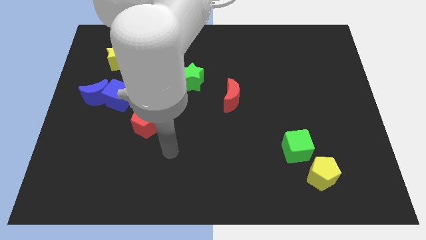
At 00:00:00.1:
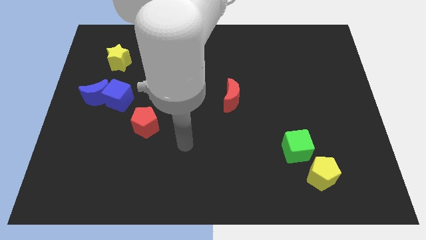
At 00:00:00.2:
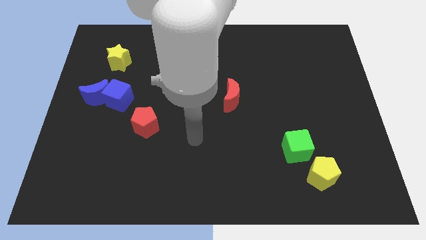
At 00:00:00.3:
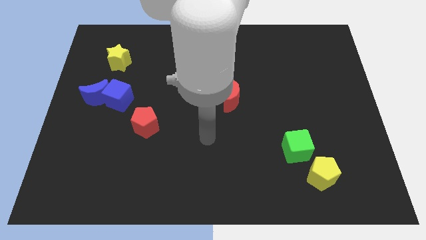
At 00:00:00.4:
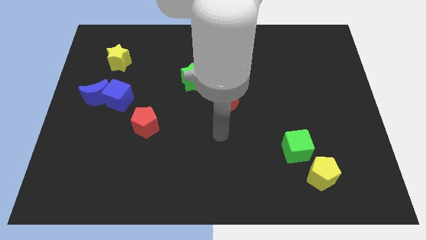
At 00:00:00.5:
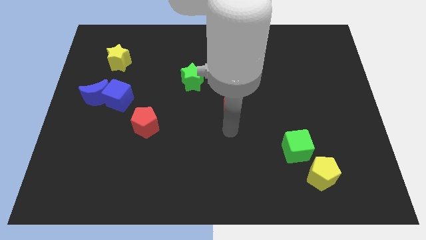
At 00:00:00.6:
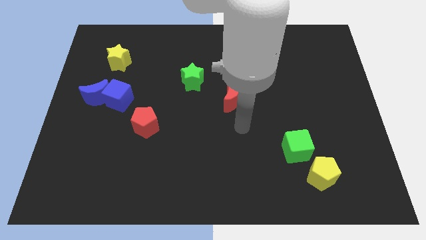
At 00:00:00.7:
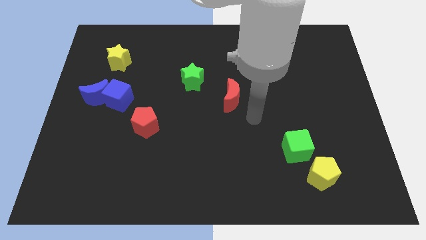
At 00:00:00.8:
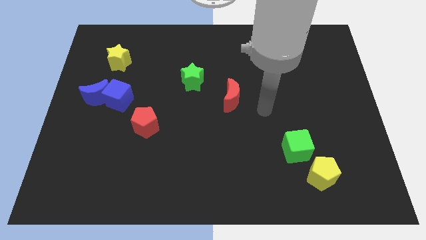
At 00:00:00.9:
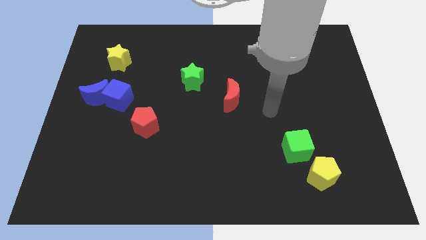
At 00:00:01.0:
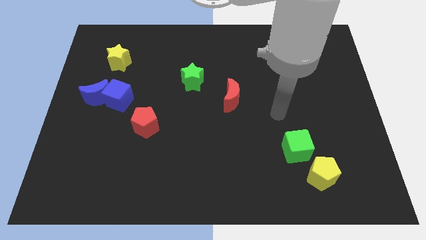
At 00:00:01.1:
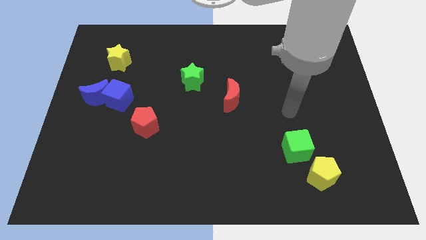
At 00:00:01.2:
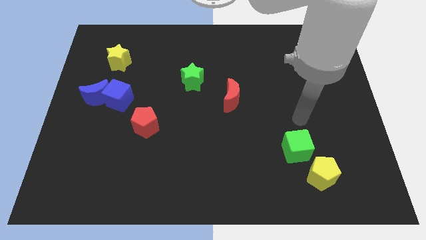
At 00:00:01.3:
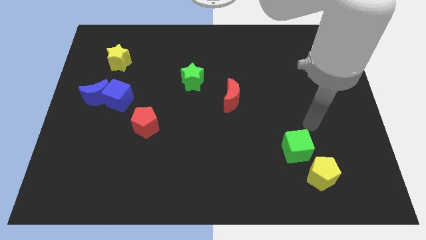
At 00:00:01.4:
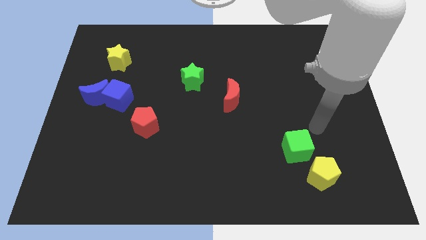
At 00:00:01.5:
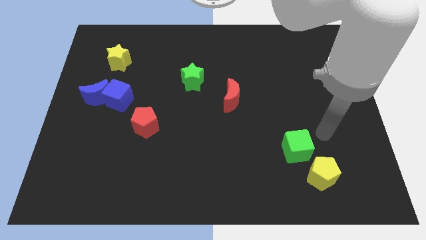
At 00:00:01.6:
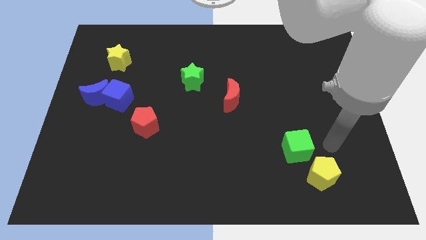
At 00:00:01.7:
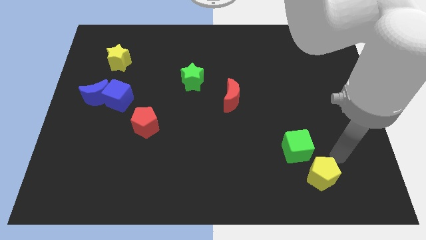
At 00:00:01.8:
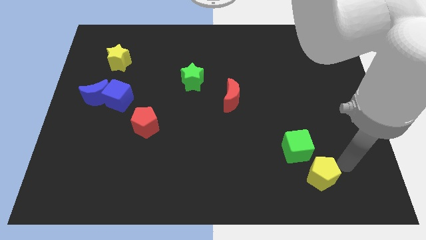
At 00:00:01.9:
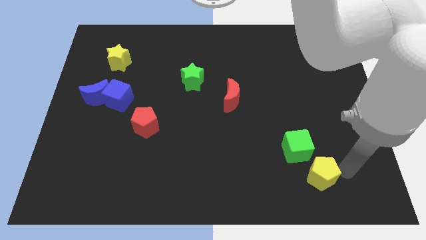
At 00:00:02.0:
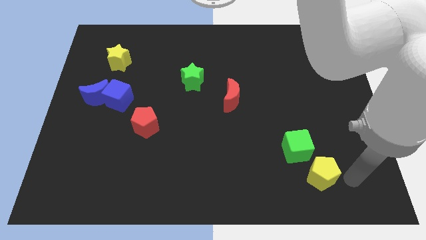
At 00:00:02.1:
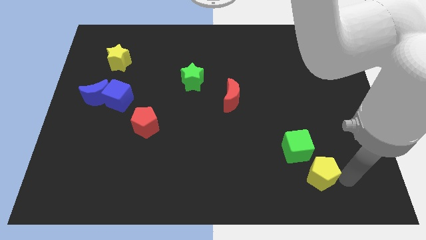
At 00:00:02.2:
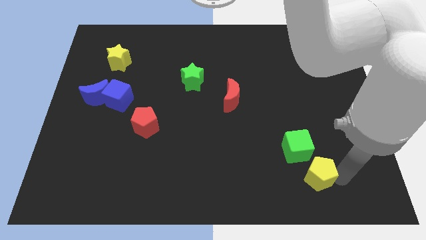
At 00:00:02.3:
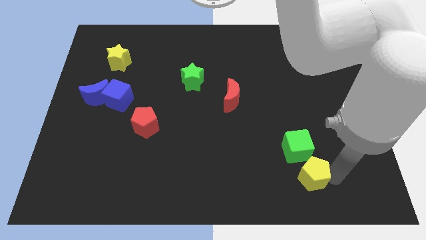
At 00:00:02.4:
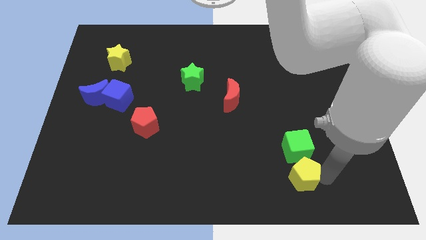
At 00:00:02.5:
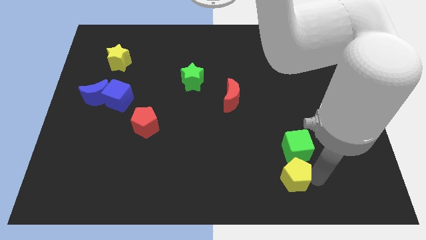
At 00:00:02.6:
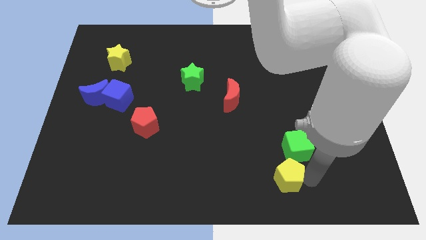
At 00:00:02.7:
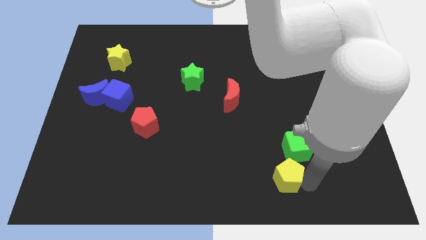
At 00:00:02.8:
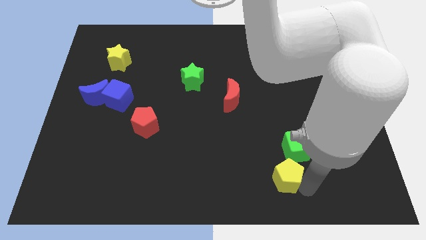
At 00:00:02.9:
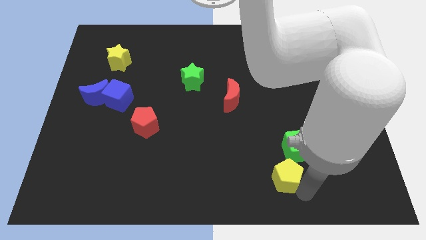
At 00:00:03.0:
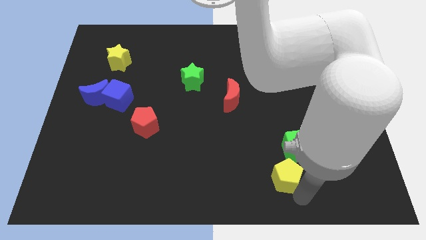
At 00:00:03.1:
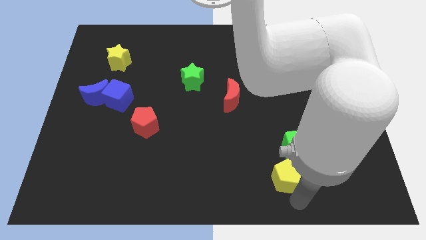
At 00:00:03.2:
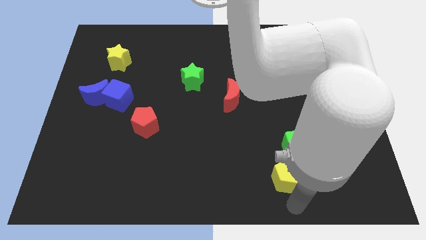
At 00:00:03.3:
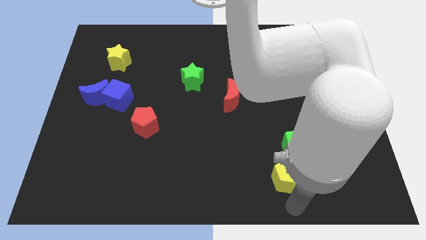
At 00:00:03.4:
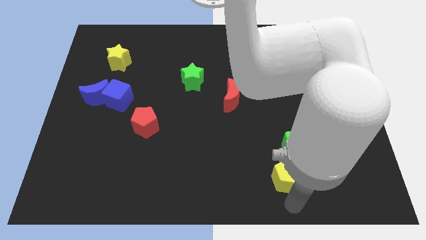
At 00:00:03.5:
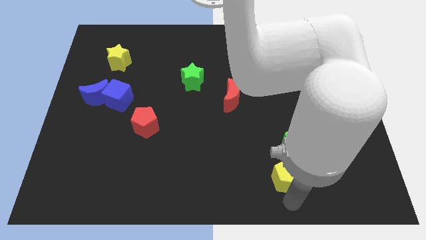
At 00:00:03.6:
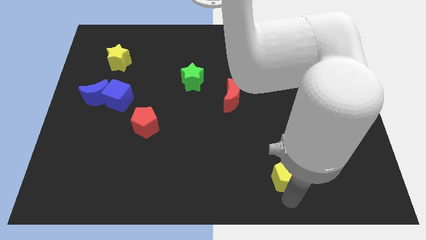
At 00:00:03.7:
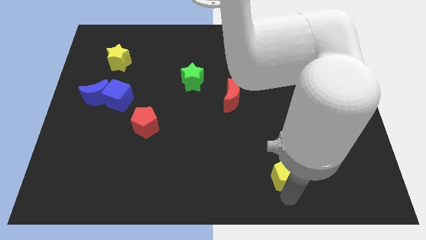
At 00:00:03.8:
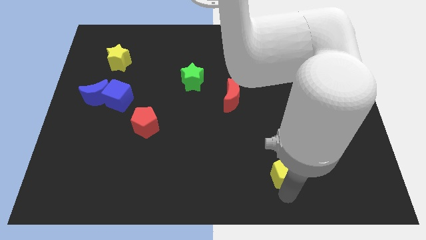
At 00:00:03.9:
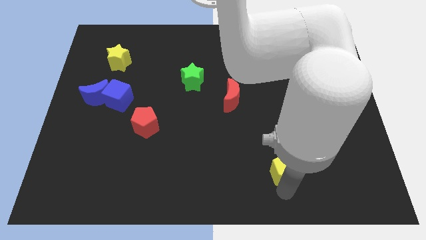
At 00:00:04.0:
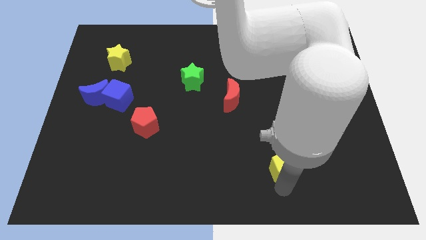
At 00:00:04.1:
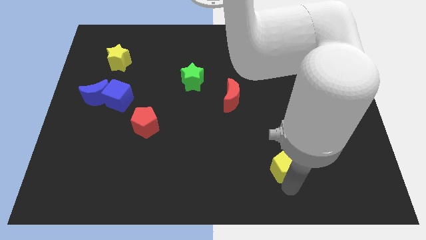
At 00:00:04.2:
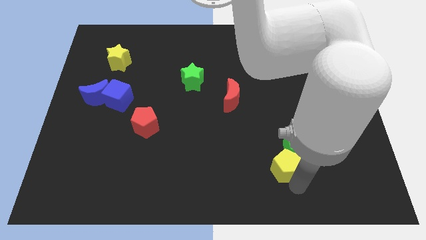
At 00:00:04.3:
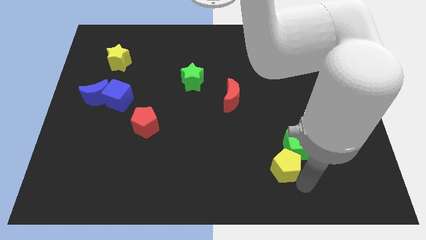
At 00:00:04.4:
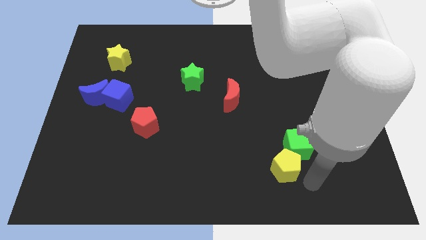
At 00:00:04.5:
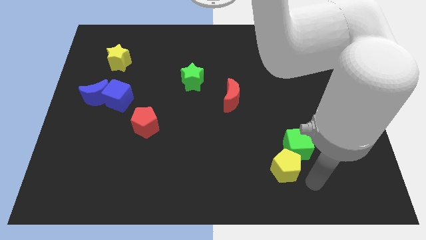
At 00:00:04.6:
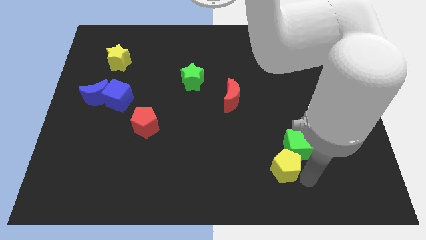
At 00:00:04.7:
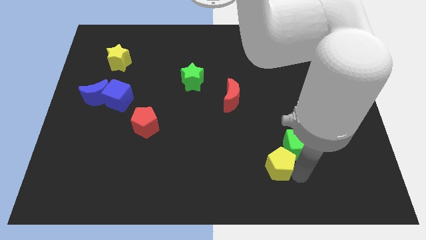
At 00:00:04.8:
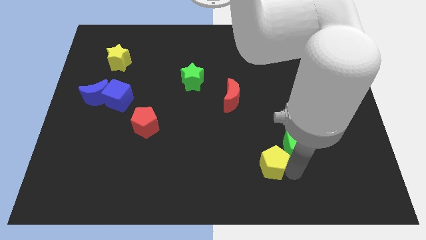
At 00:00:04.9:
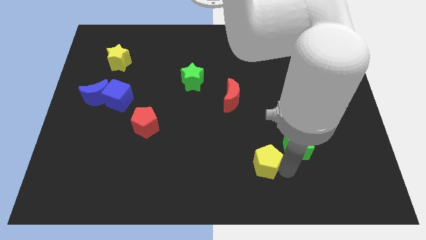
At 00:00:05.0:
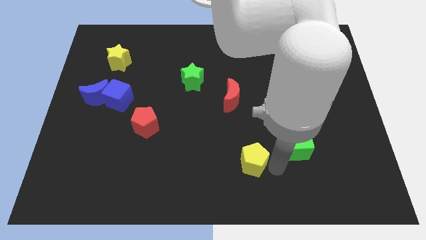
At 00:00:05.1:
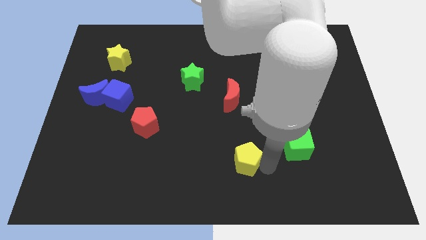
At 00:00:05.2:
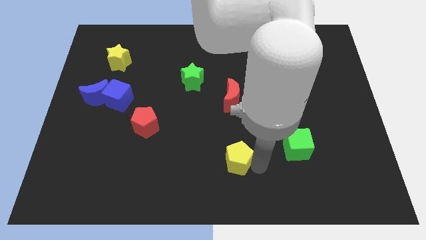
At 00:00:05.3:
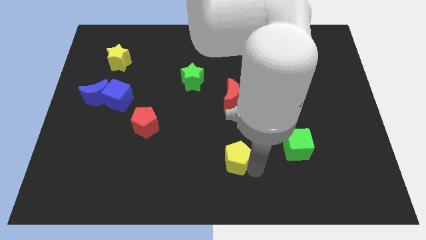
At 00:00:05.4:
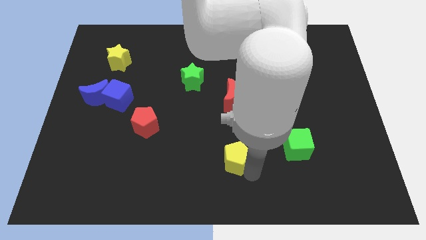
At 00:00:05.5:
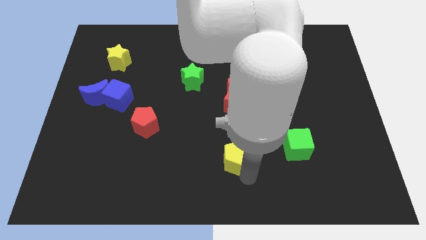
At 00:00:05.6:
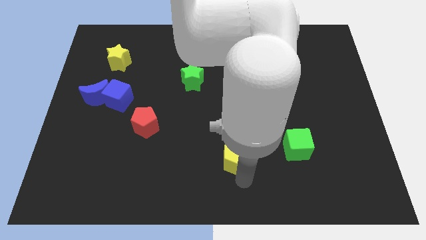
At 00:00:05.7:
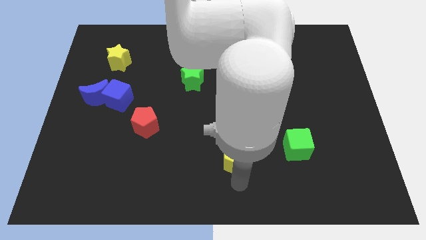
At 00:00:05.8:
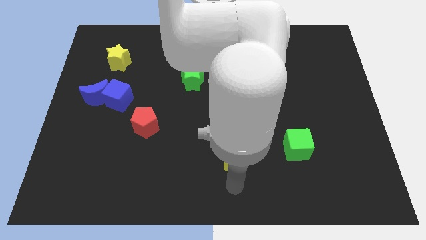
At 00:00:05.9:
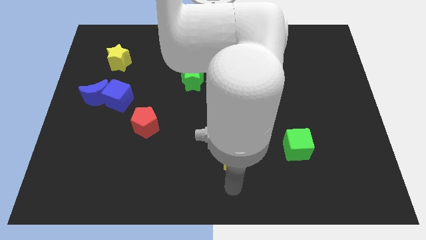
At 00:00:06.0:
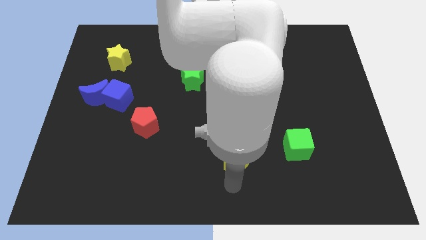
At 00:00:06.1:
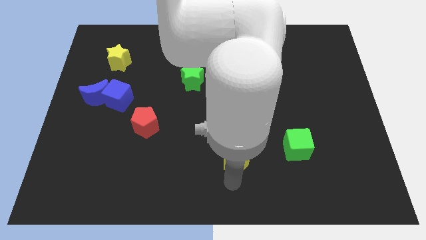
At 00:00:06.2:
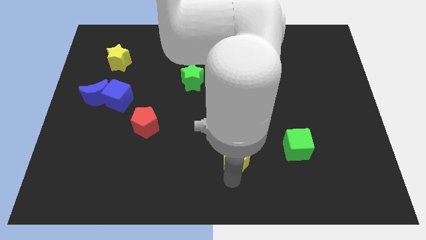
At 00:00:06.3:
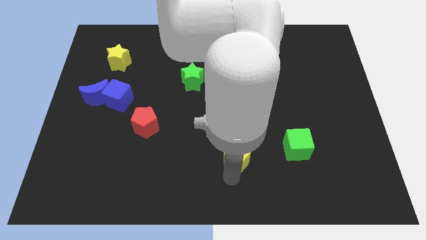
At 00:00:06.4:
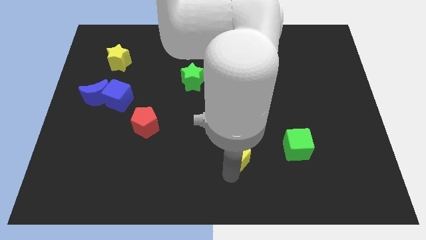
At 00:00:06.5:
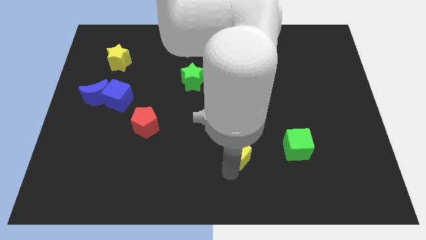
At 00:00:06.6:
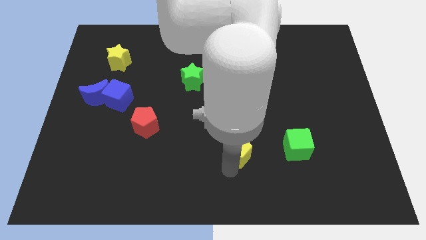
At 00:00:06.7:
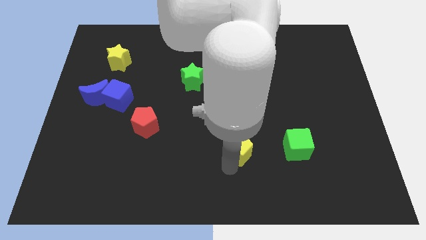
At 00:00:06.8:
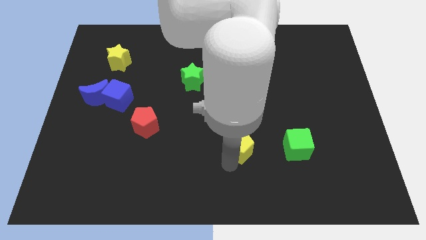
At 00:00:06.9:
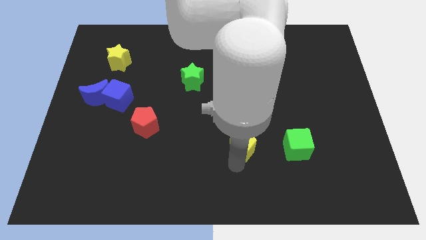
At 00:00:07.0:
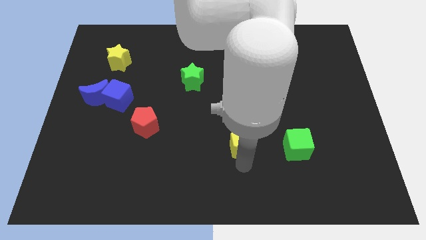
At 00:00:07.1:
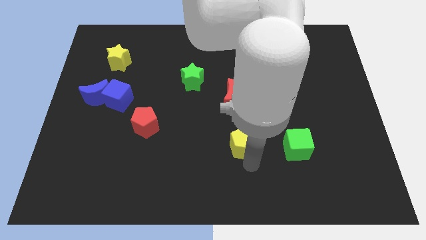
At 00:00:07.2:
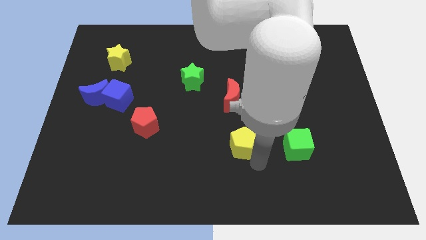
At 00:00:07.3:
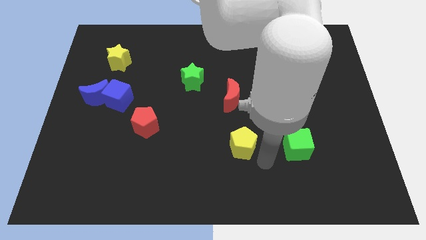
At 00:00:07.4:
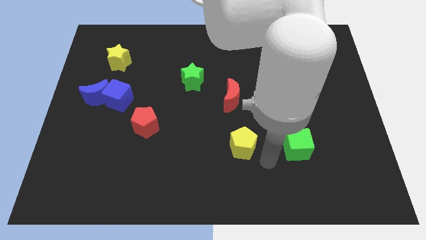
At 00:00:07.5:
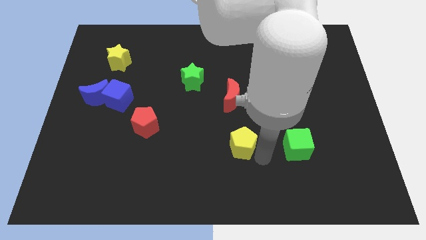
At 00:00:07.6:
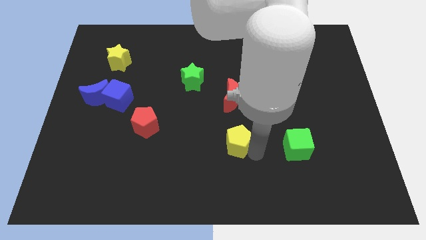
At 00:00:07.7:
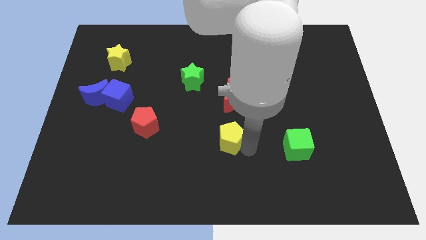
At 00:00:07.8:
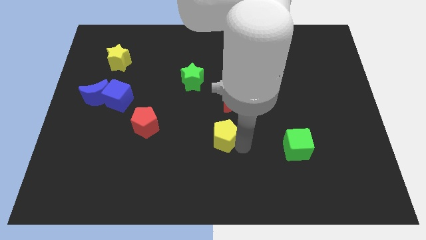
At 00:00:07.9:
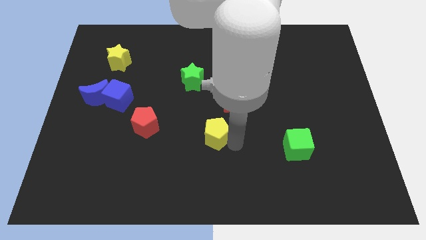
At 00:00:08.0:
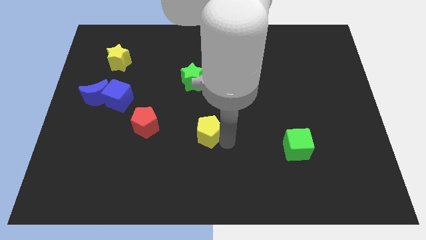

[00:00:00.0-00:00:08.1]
push the yellow pentagon diagonally down and to the left of the red moon
